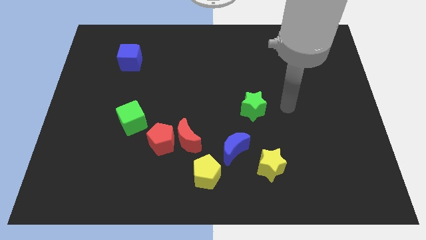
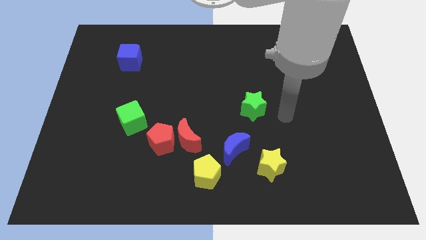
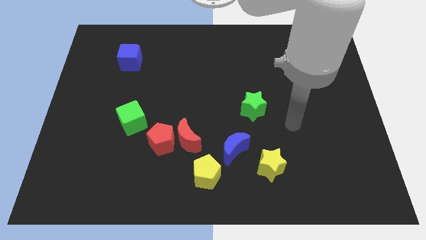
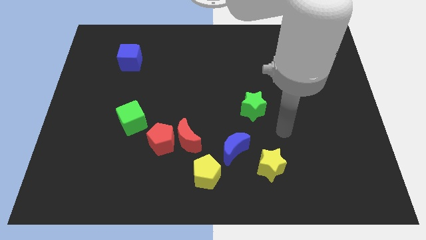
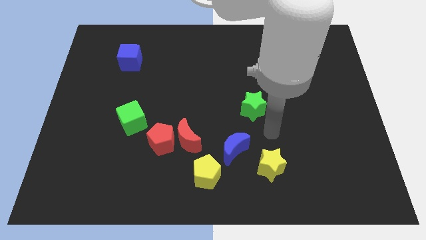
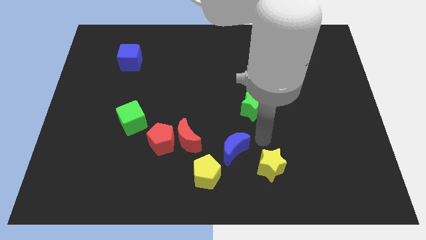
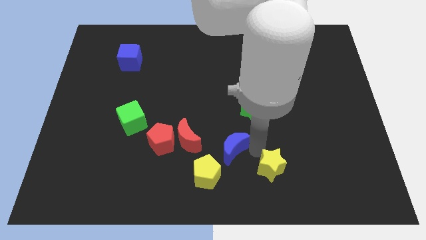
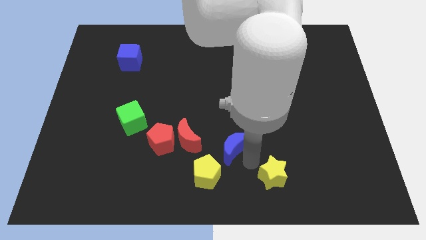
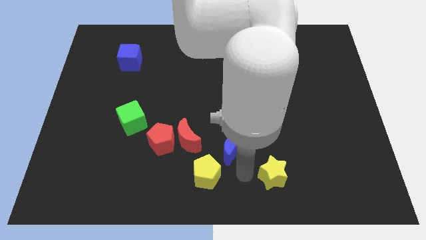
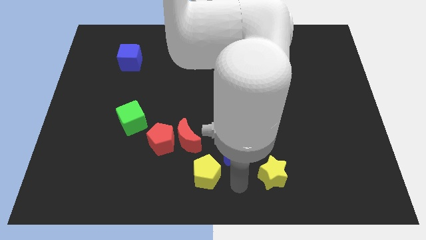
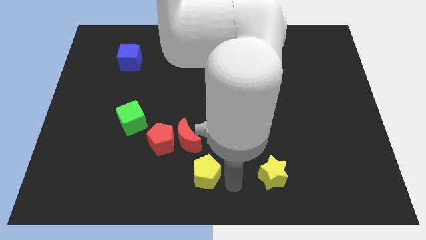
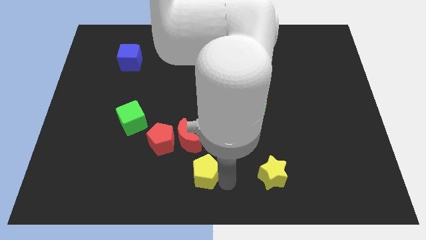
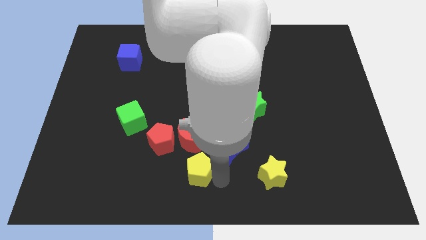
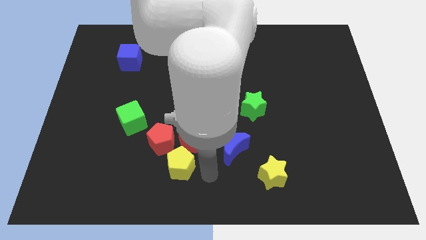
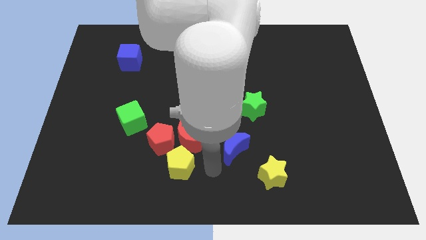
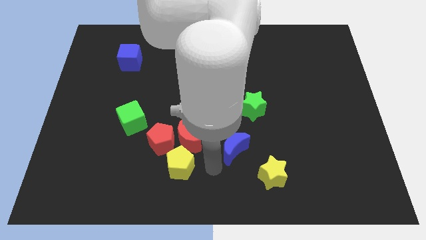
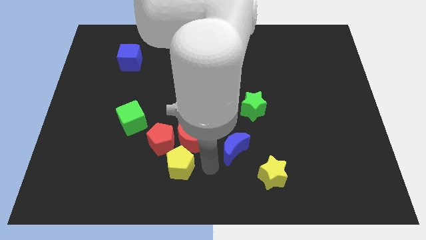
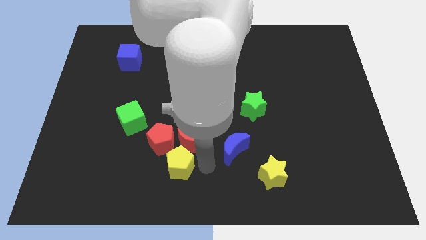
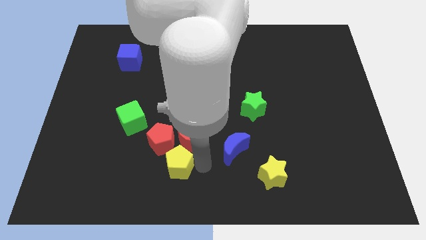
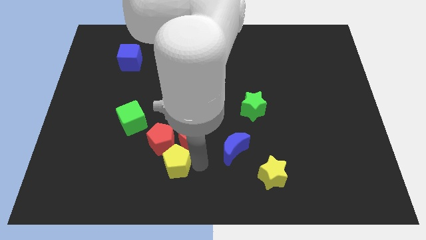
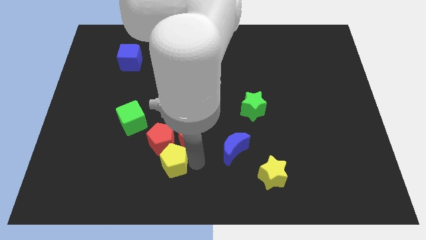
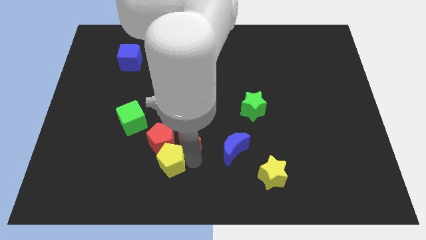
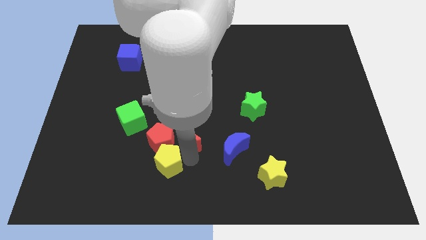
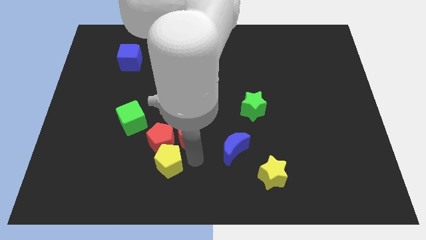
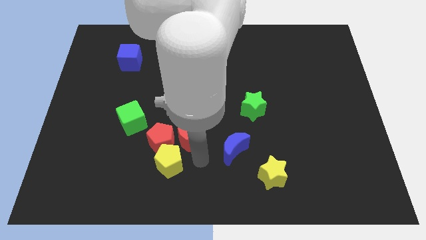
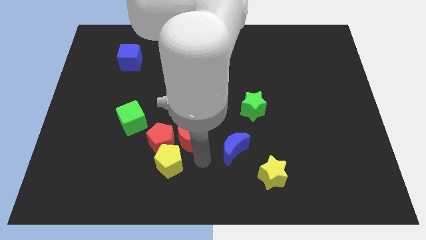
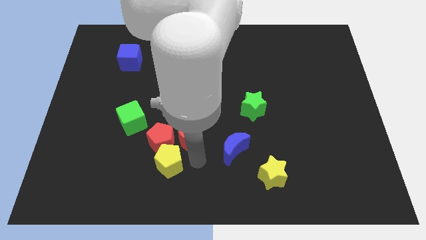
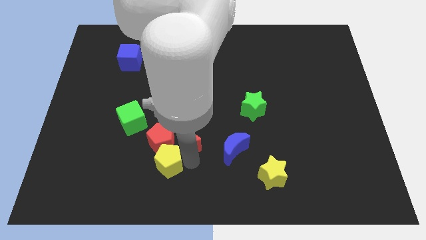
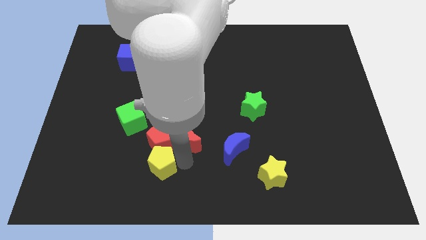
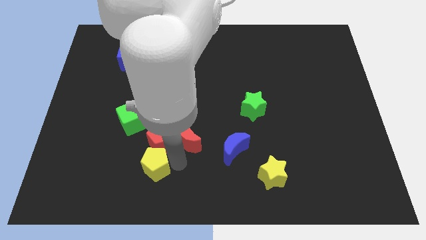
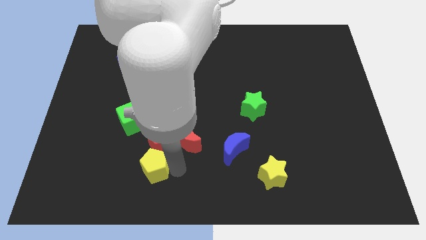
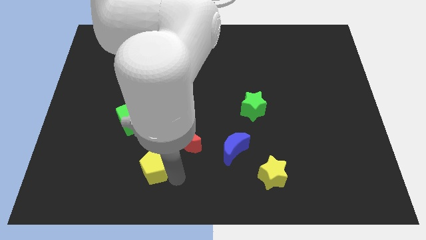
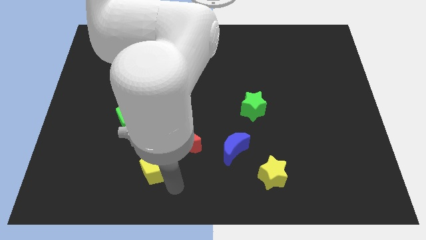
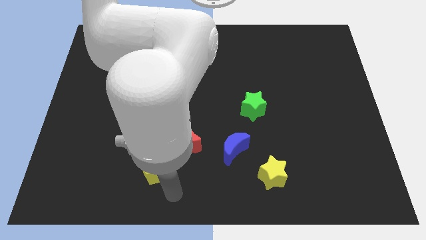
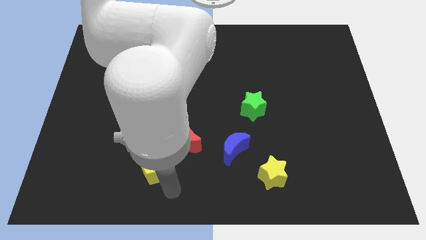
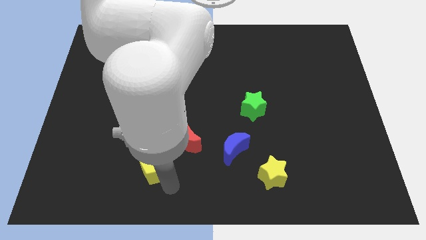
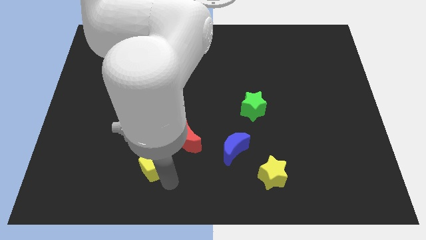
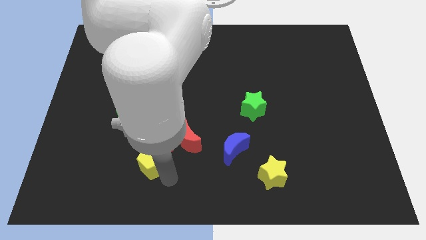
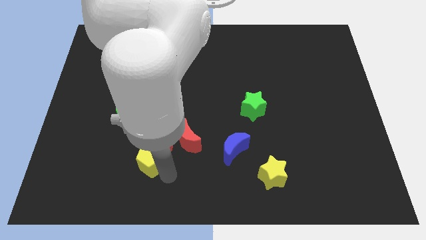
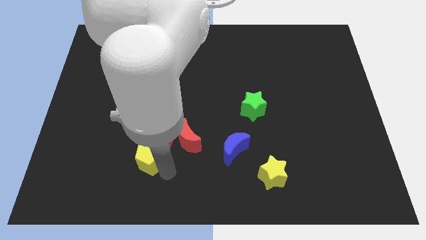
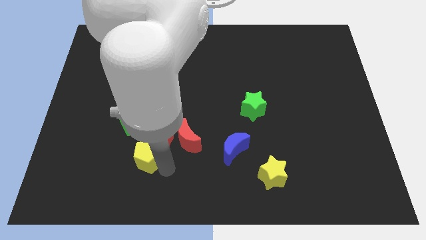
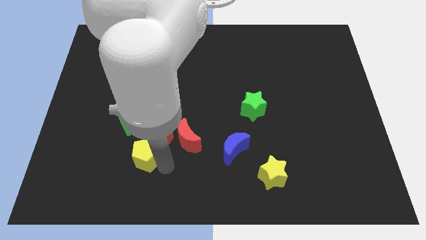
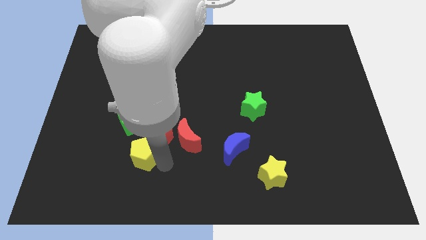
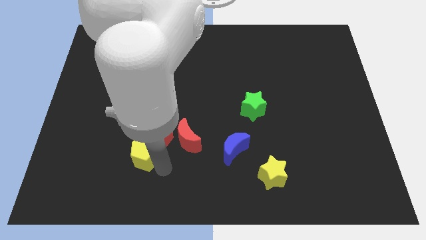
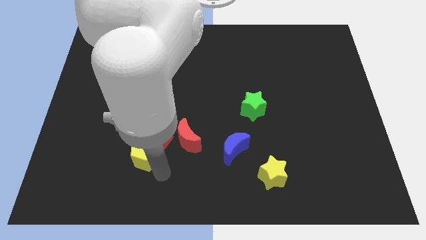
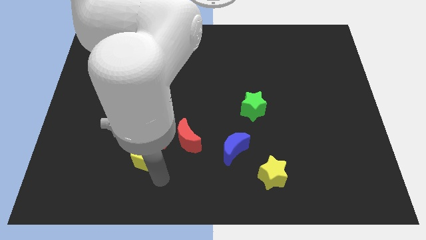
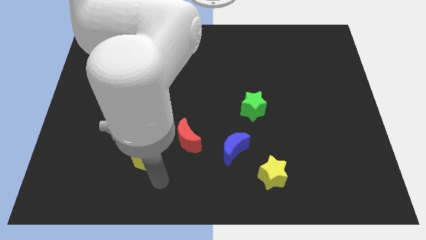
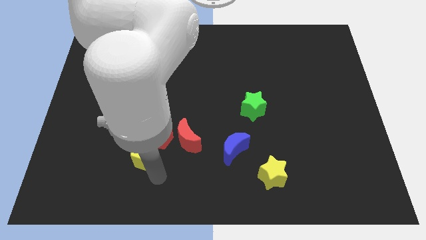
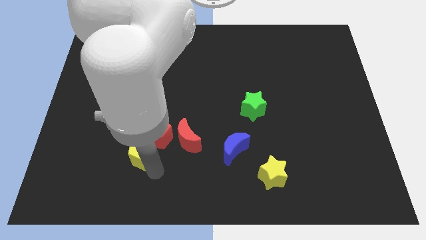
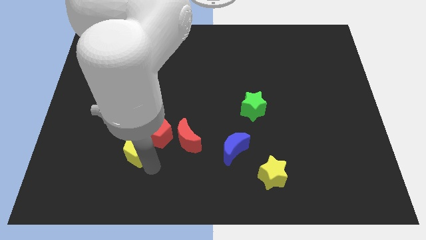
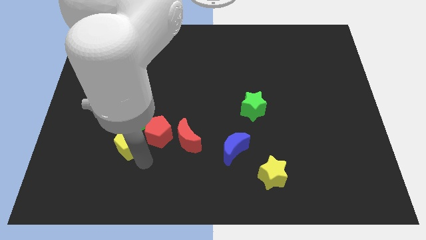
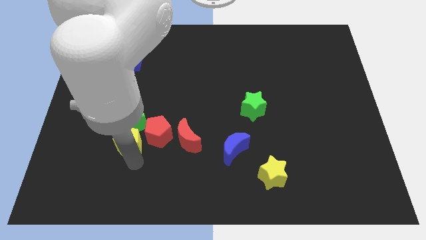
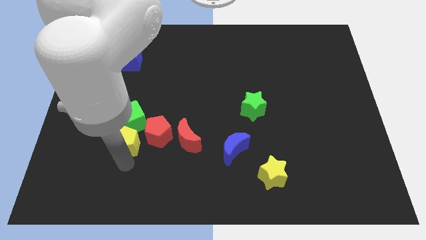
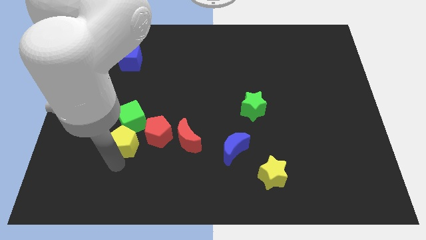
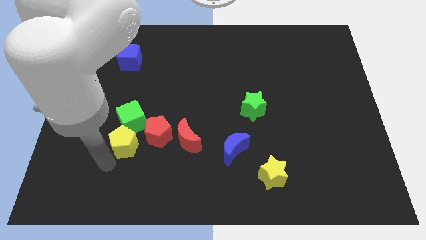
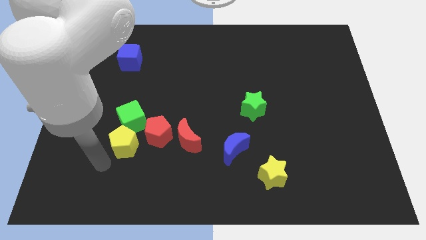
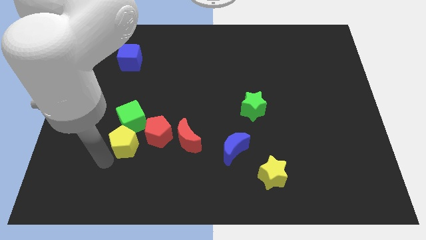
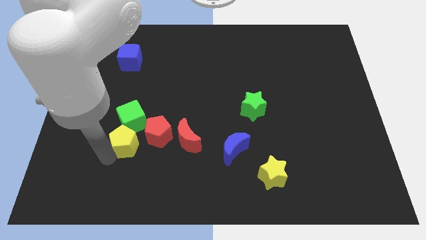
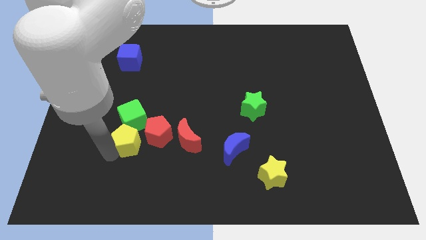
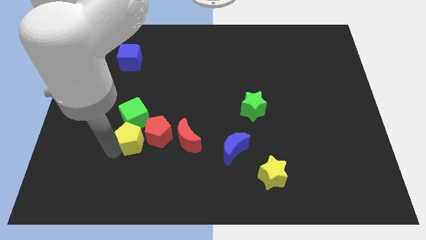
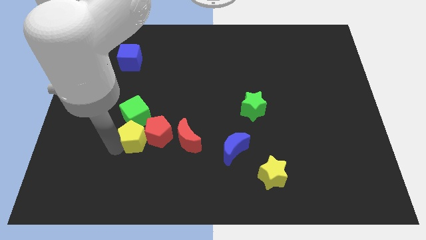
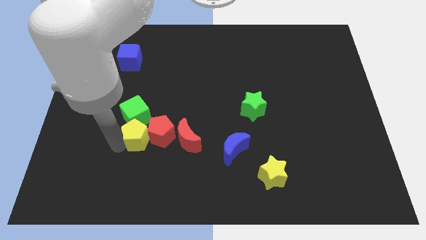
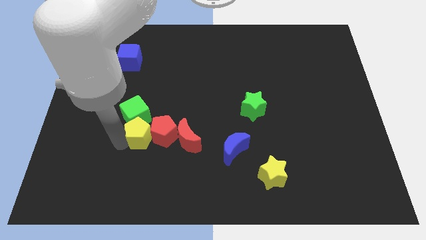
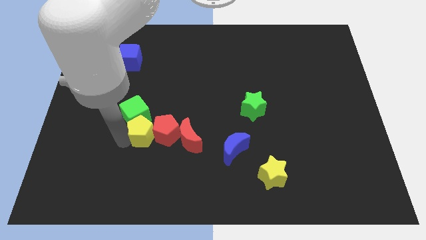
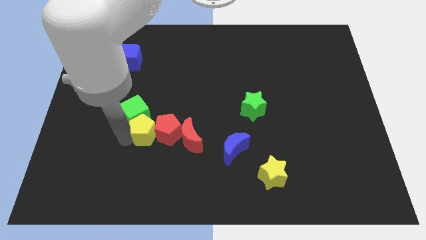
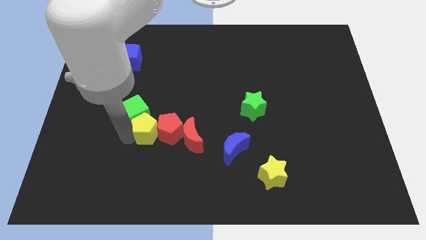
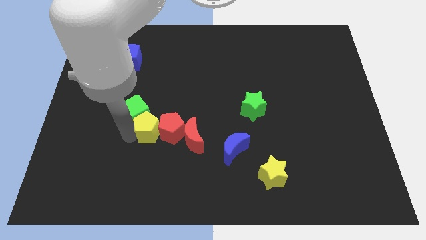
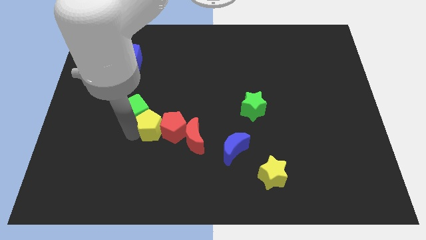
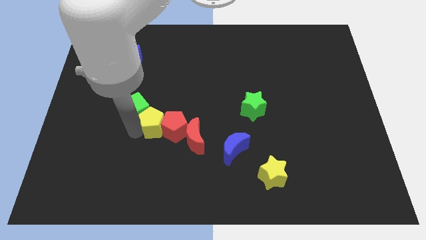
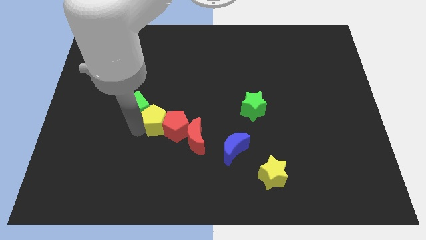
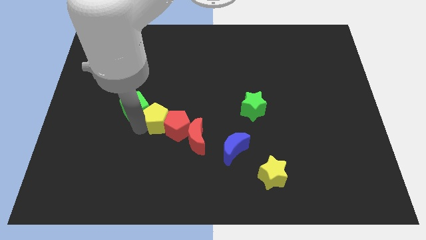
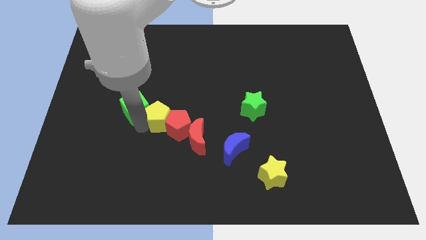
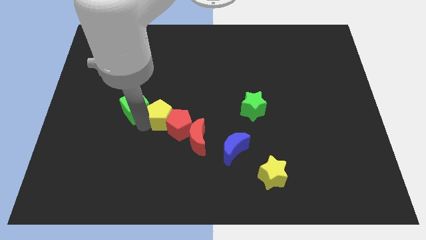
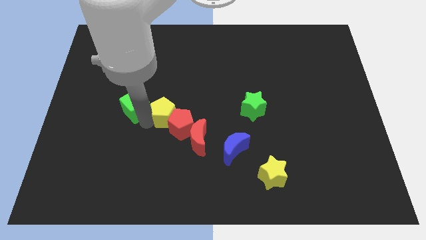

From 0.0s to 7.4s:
push the yellow pentagon to the middle
